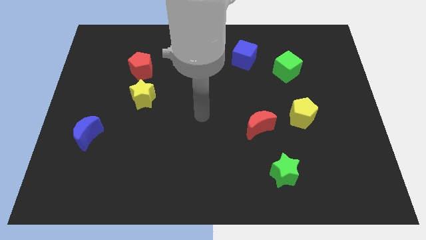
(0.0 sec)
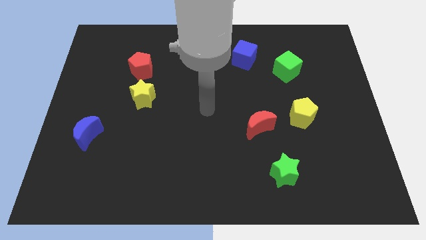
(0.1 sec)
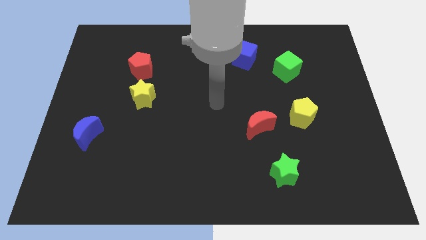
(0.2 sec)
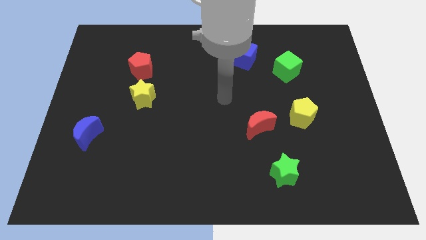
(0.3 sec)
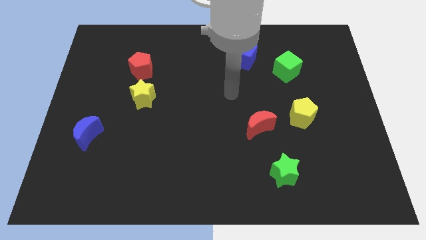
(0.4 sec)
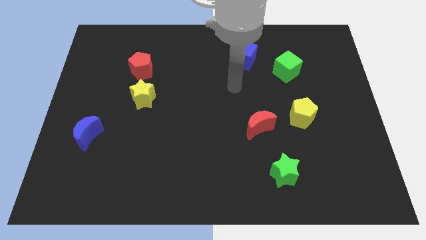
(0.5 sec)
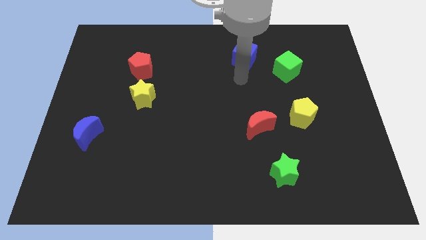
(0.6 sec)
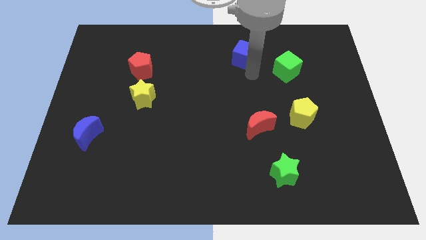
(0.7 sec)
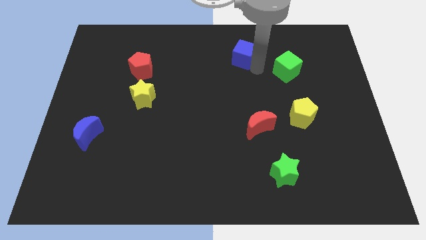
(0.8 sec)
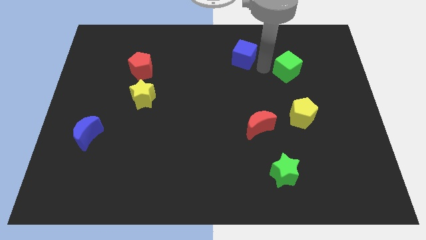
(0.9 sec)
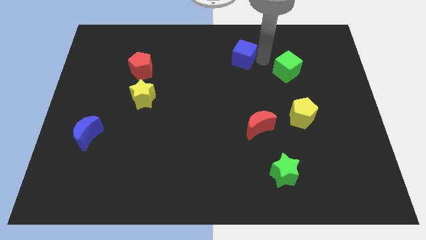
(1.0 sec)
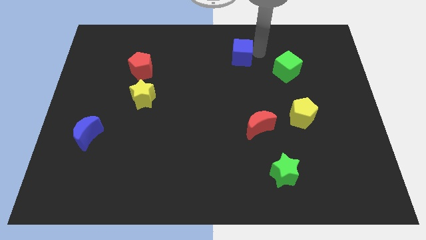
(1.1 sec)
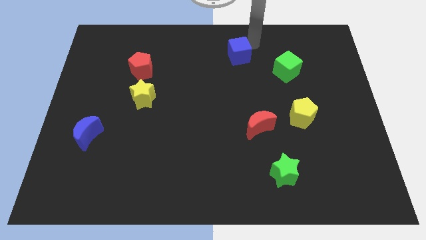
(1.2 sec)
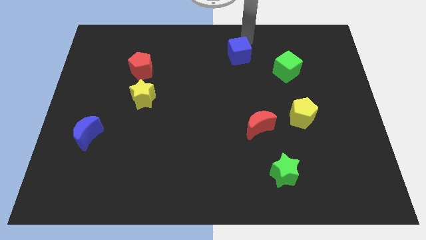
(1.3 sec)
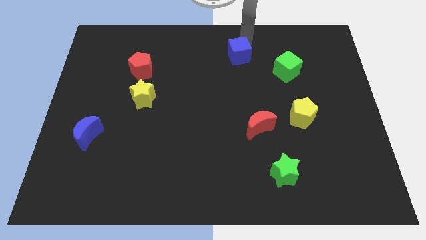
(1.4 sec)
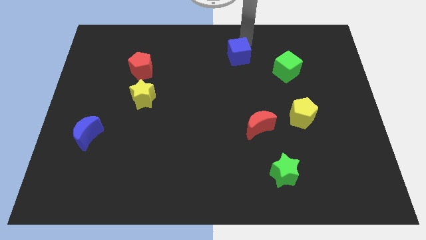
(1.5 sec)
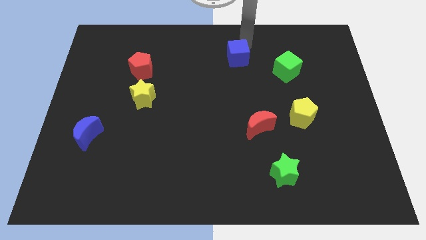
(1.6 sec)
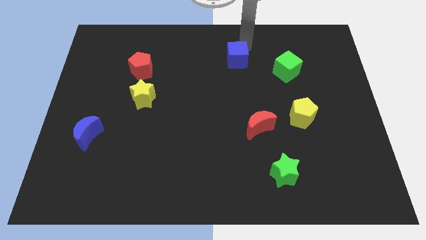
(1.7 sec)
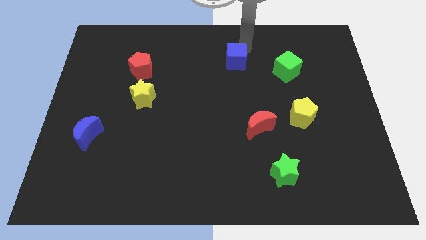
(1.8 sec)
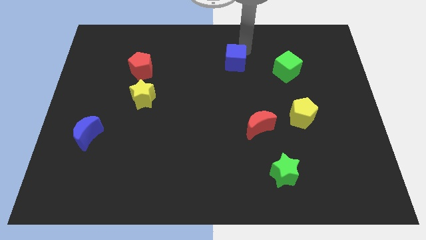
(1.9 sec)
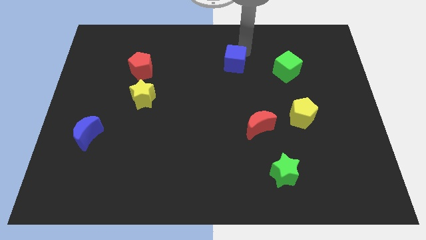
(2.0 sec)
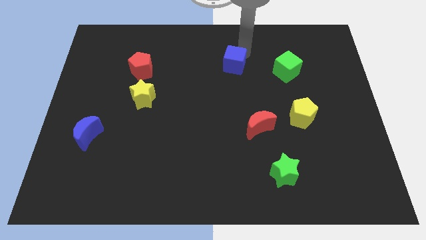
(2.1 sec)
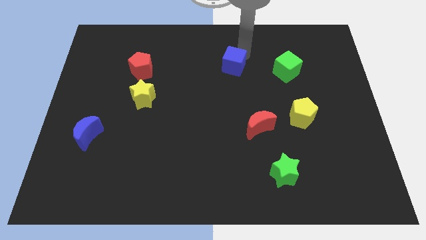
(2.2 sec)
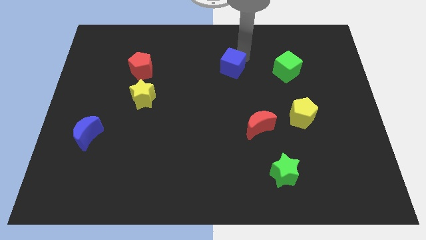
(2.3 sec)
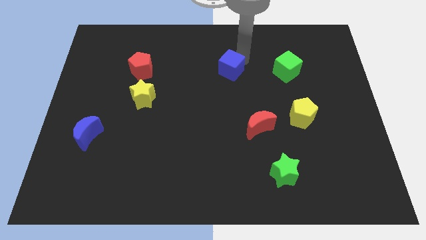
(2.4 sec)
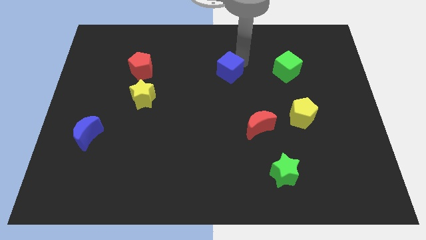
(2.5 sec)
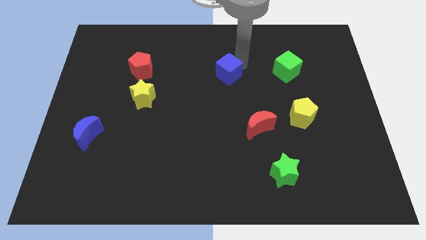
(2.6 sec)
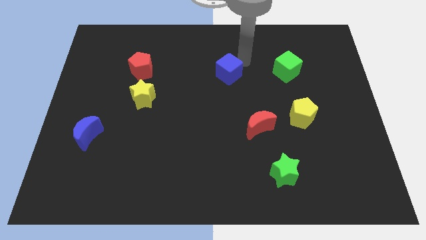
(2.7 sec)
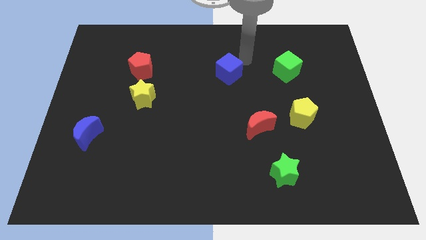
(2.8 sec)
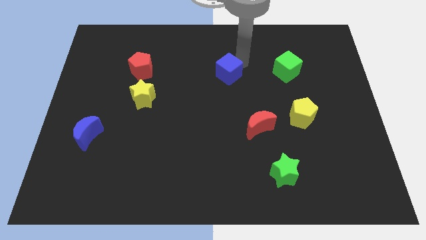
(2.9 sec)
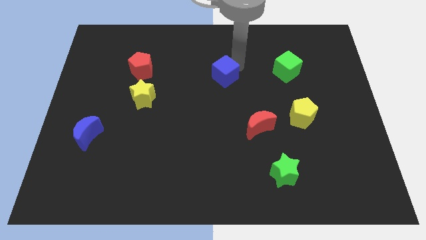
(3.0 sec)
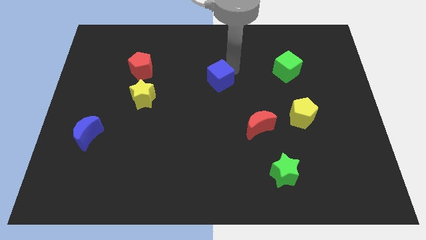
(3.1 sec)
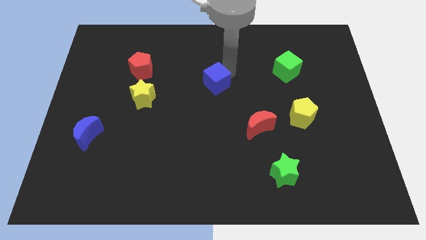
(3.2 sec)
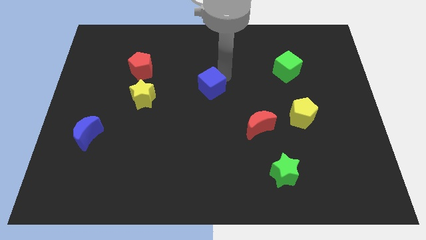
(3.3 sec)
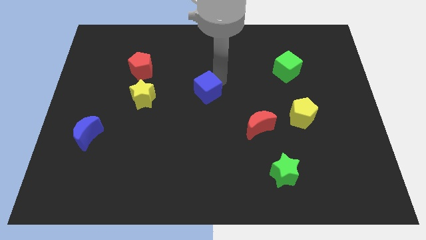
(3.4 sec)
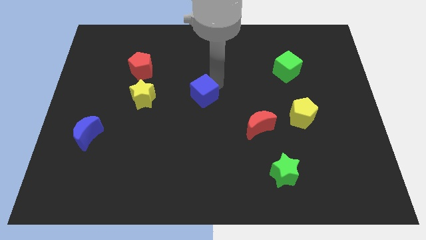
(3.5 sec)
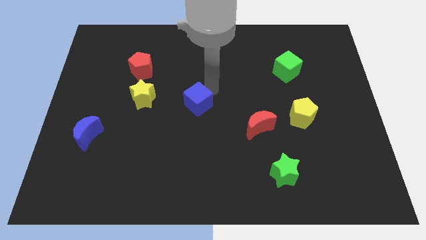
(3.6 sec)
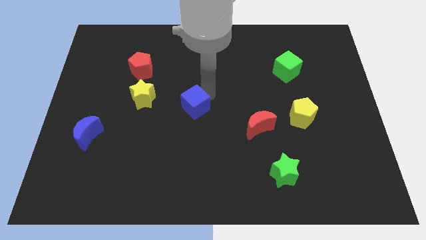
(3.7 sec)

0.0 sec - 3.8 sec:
slide the blue cube downwards and then left

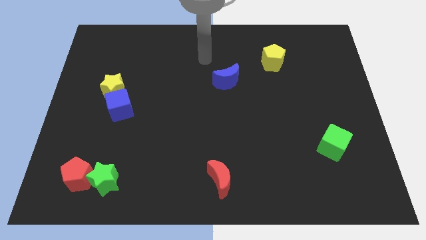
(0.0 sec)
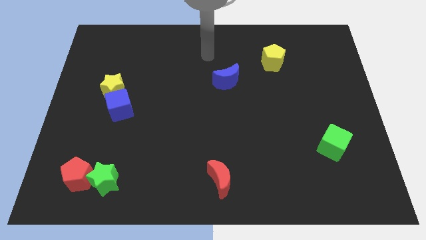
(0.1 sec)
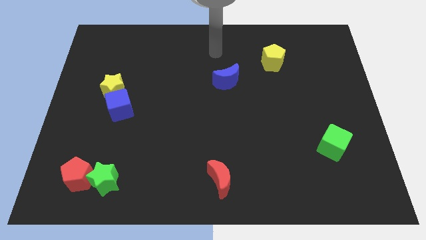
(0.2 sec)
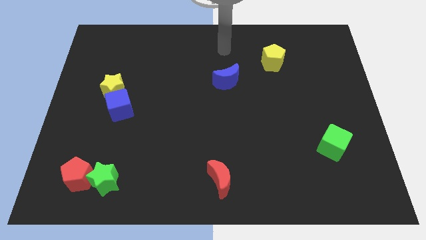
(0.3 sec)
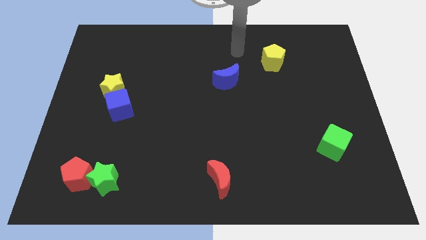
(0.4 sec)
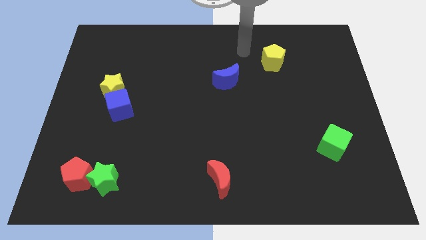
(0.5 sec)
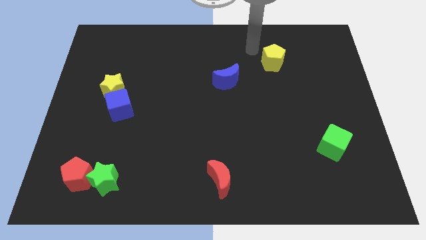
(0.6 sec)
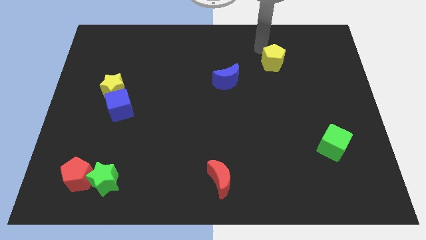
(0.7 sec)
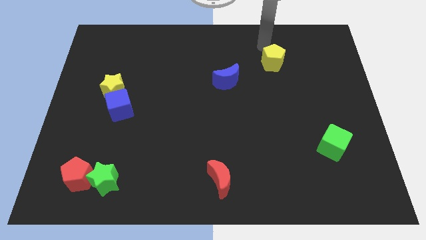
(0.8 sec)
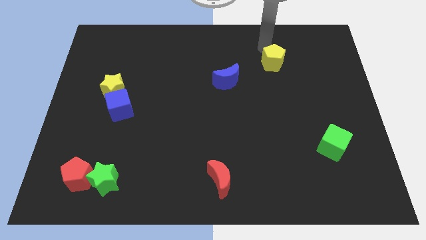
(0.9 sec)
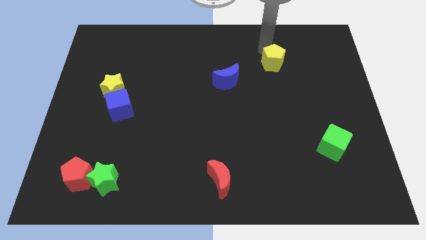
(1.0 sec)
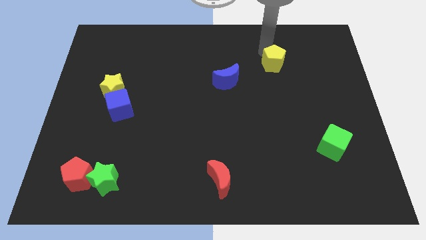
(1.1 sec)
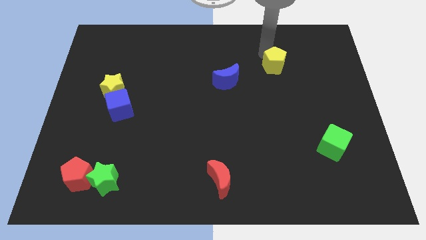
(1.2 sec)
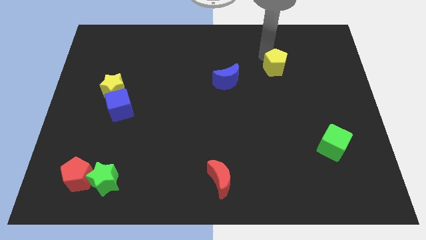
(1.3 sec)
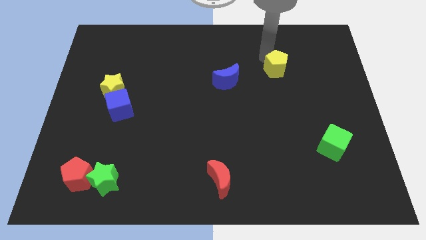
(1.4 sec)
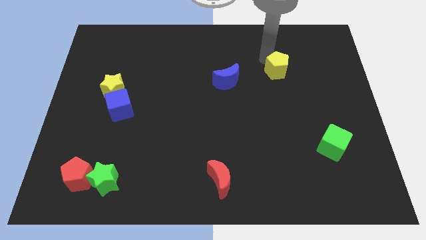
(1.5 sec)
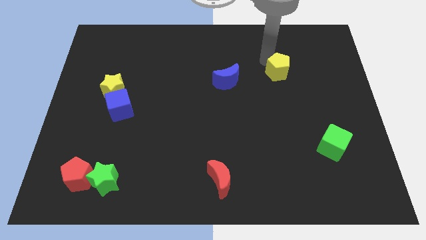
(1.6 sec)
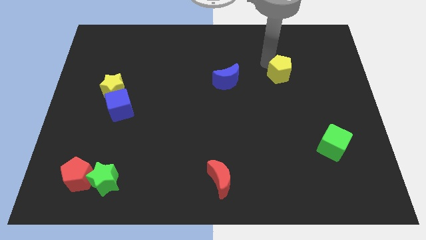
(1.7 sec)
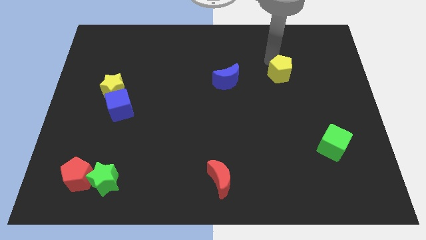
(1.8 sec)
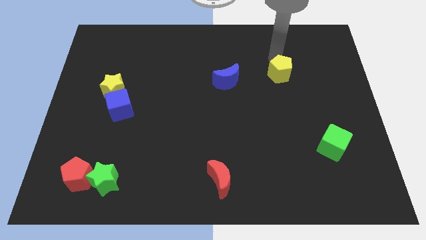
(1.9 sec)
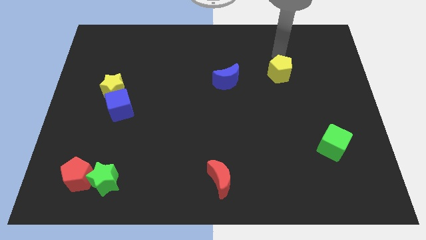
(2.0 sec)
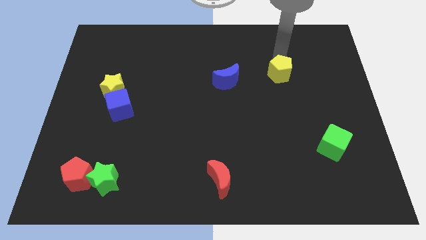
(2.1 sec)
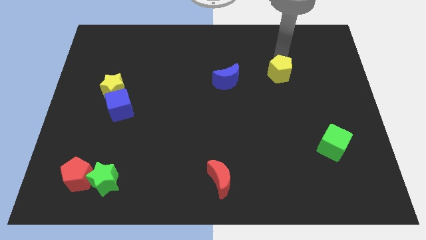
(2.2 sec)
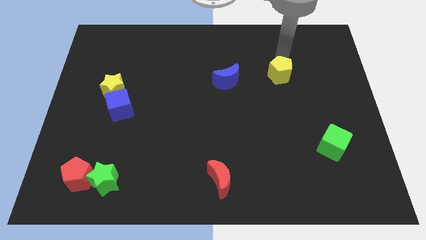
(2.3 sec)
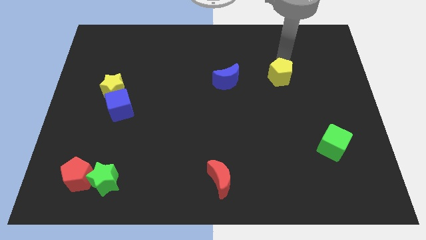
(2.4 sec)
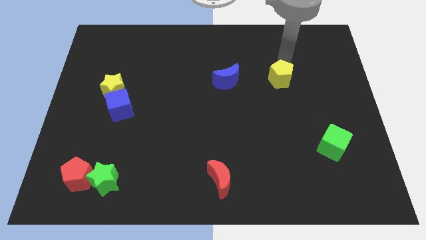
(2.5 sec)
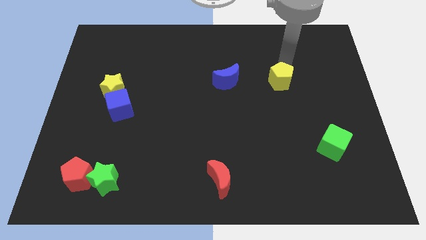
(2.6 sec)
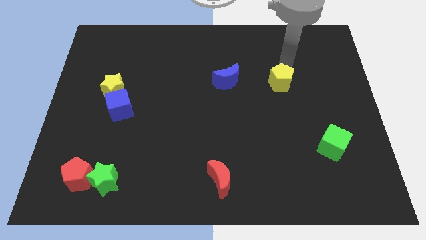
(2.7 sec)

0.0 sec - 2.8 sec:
slightly move the yellow pentagon down

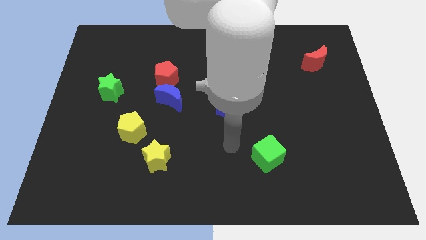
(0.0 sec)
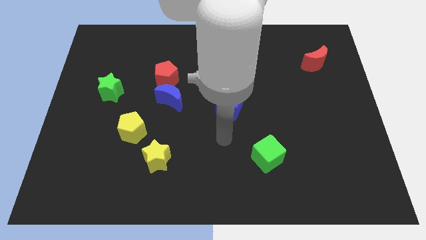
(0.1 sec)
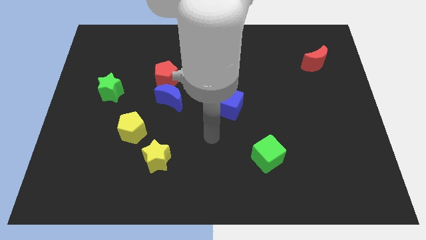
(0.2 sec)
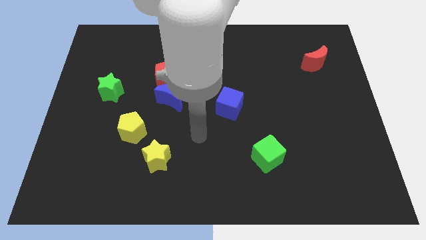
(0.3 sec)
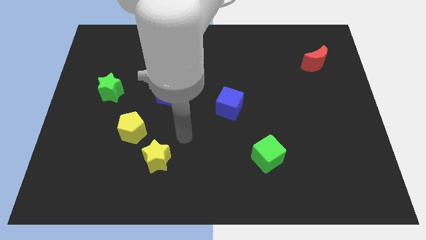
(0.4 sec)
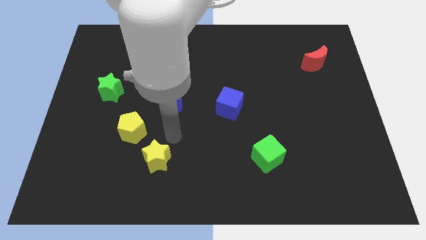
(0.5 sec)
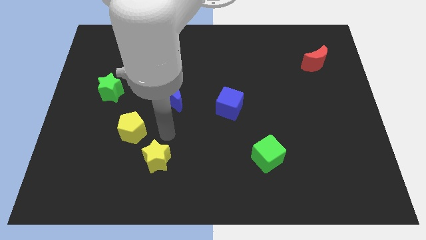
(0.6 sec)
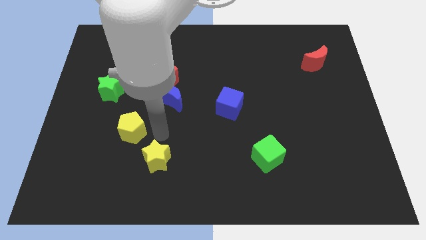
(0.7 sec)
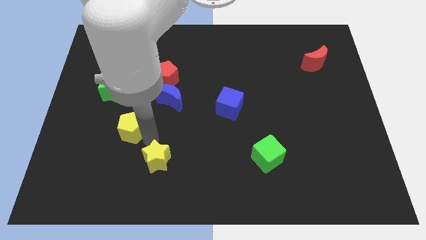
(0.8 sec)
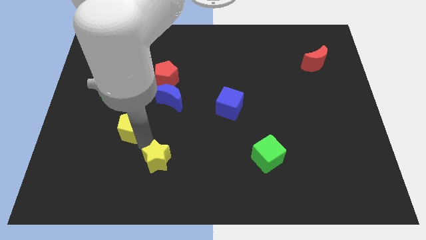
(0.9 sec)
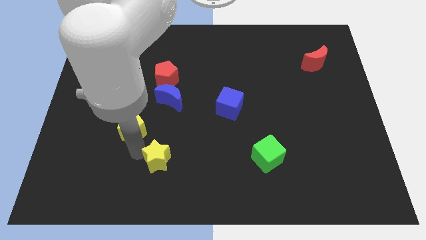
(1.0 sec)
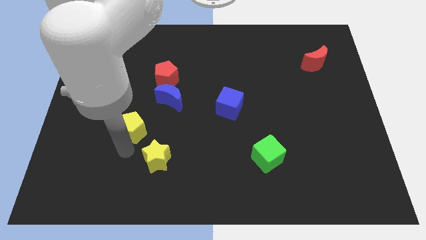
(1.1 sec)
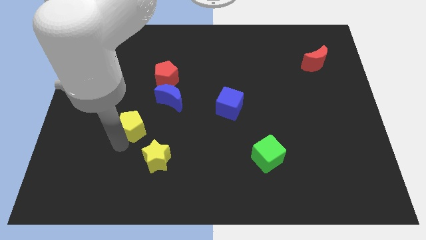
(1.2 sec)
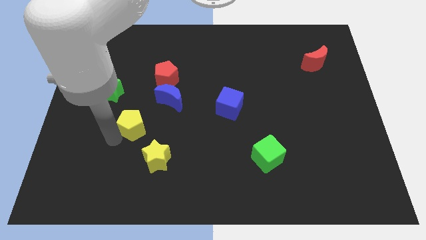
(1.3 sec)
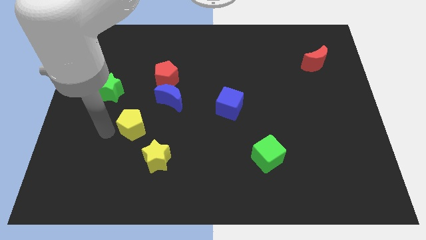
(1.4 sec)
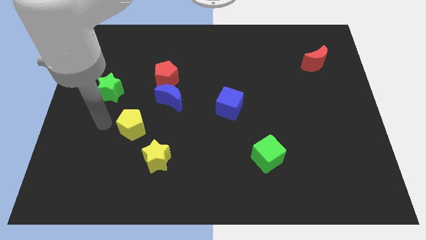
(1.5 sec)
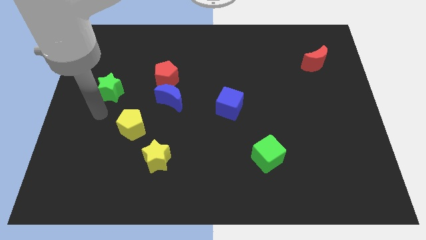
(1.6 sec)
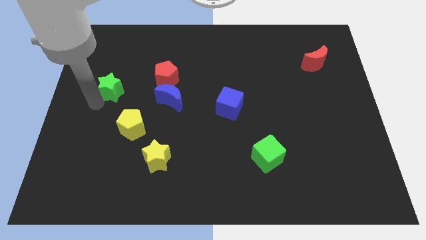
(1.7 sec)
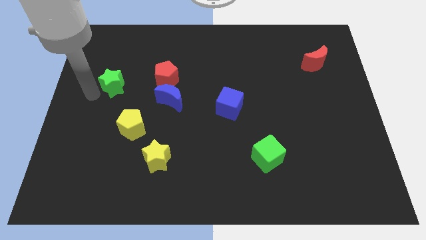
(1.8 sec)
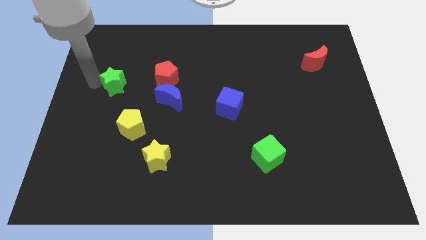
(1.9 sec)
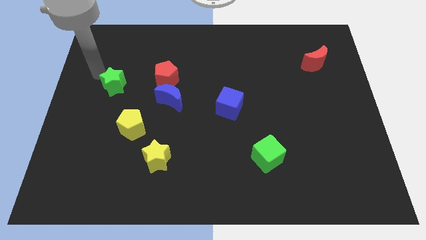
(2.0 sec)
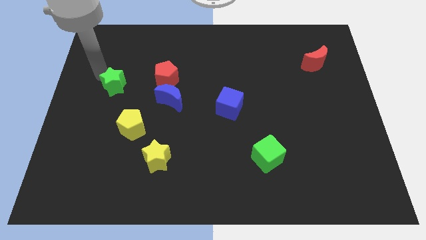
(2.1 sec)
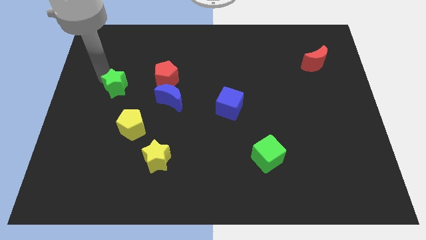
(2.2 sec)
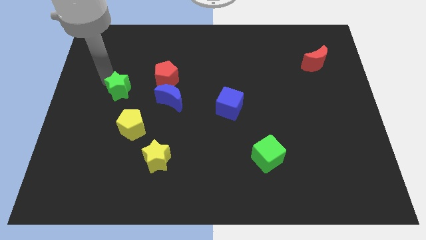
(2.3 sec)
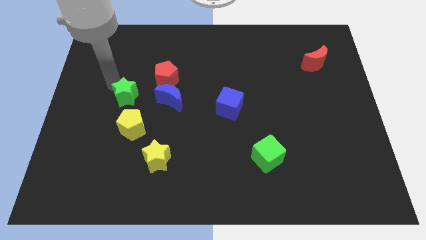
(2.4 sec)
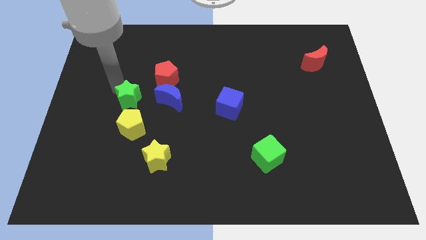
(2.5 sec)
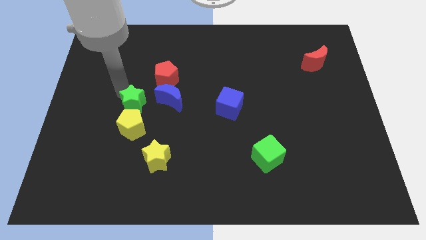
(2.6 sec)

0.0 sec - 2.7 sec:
slide the green star downwards and to the right slightly
